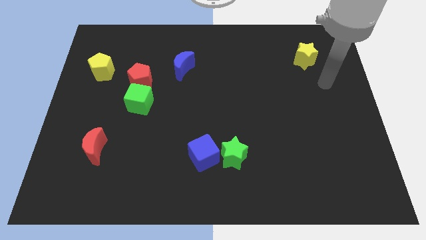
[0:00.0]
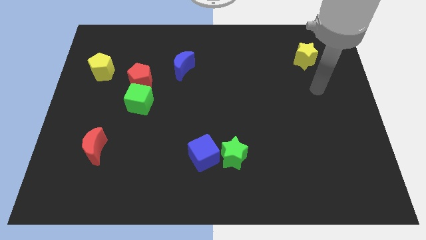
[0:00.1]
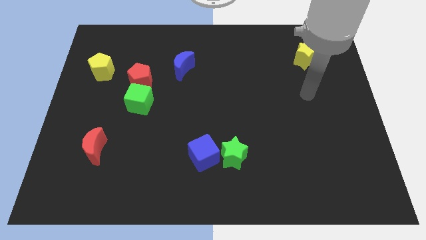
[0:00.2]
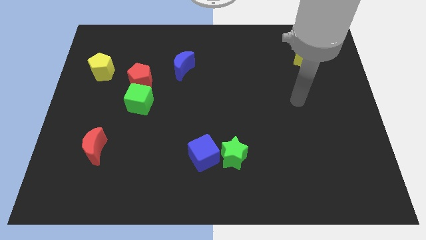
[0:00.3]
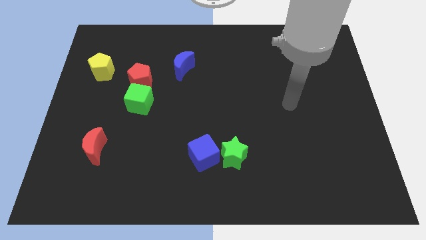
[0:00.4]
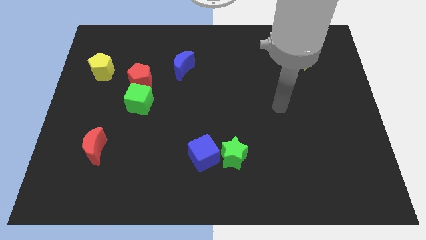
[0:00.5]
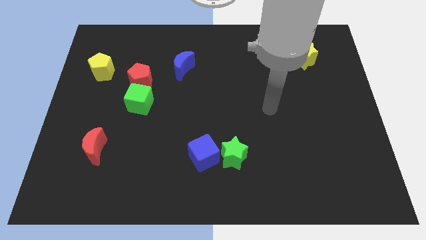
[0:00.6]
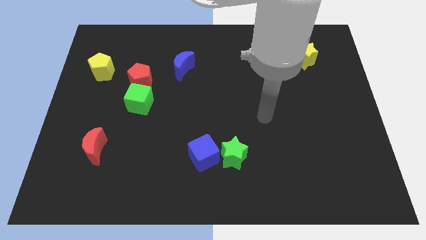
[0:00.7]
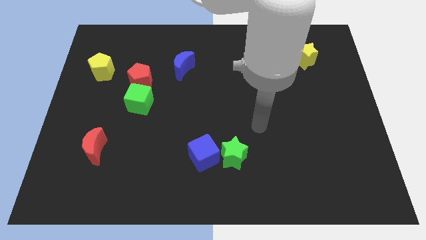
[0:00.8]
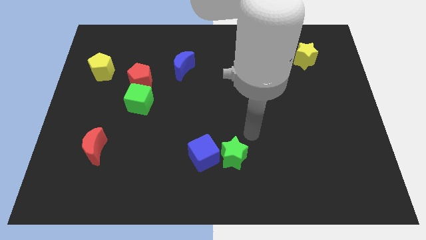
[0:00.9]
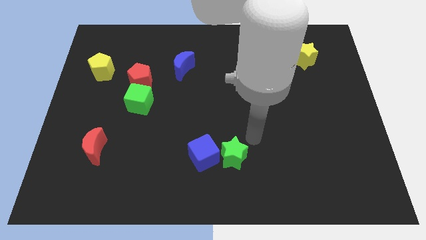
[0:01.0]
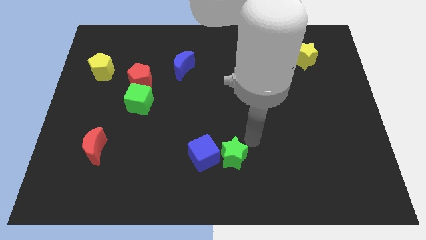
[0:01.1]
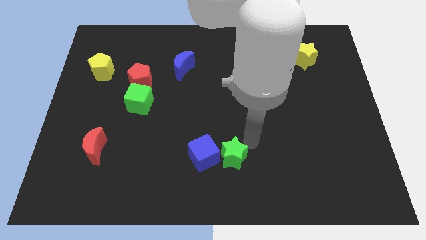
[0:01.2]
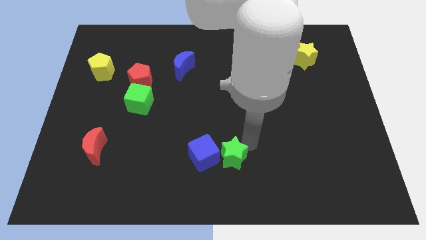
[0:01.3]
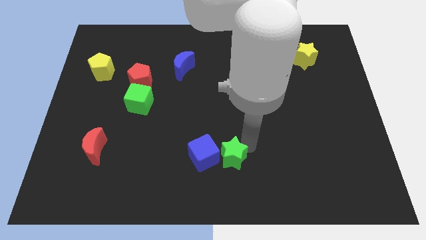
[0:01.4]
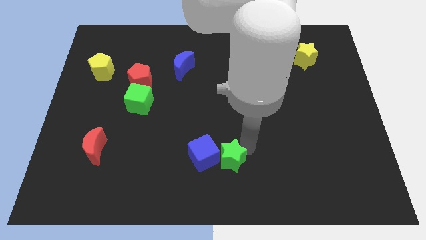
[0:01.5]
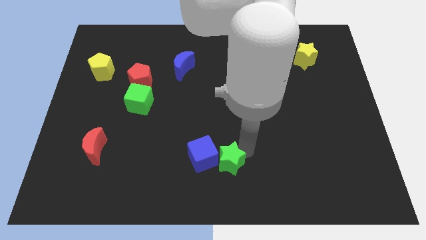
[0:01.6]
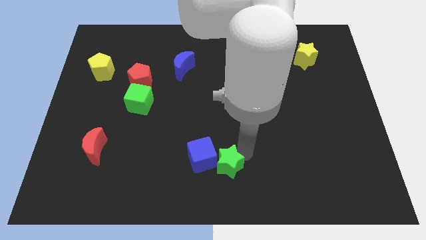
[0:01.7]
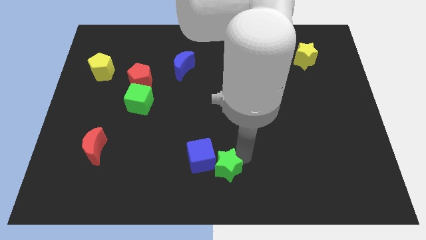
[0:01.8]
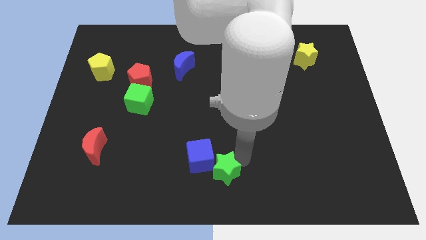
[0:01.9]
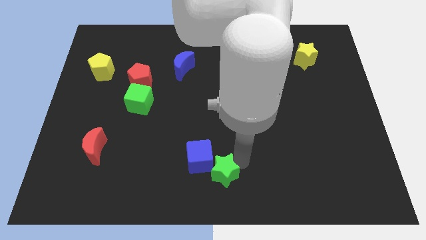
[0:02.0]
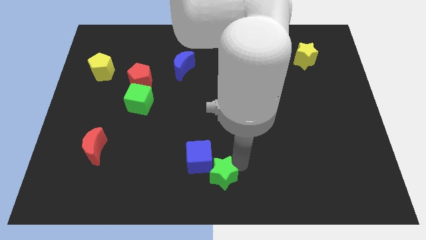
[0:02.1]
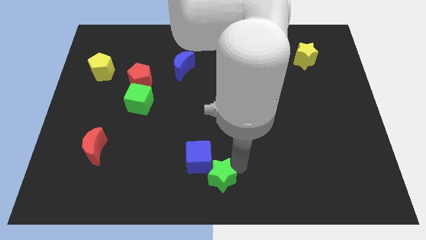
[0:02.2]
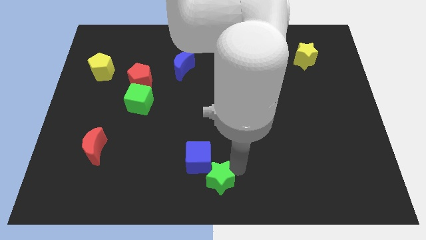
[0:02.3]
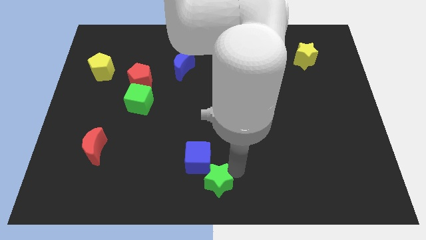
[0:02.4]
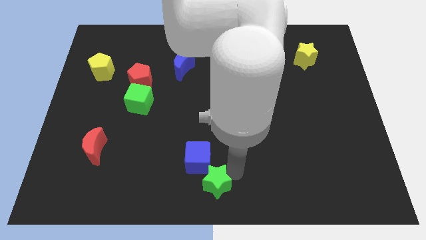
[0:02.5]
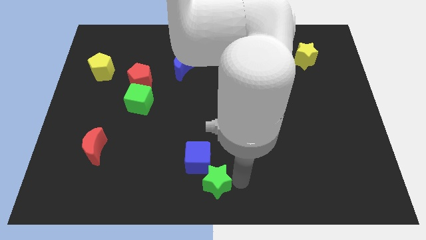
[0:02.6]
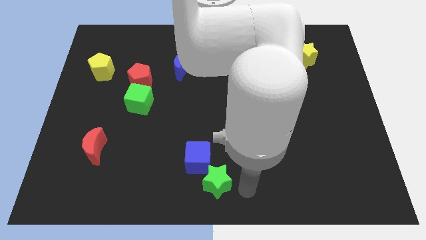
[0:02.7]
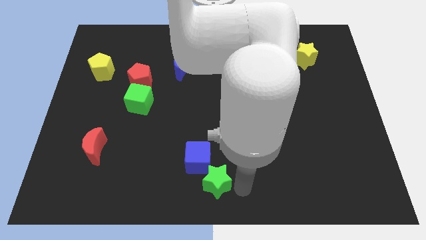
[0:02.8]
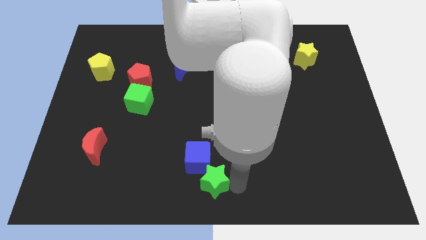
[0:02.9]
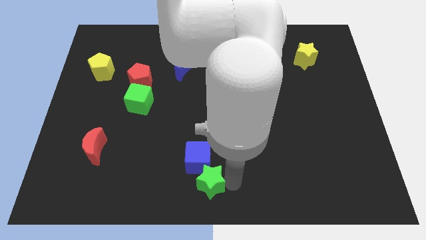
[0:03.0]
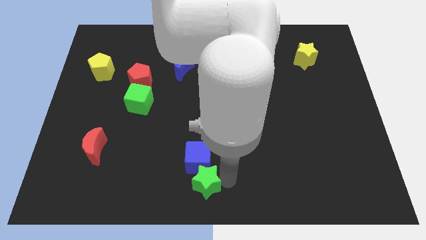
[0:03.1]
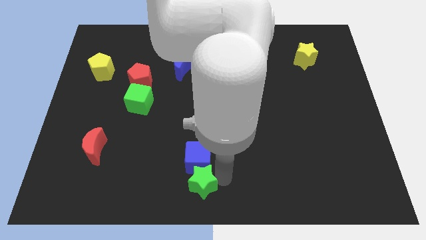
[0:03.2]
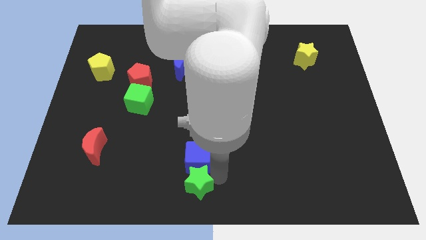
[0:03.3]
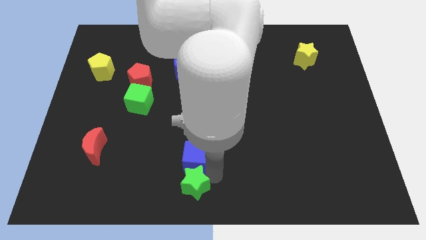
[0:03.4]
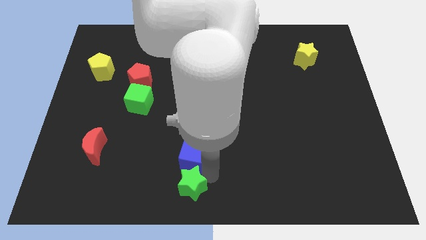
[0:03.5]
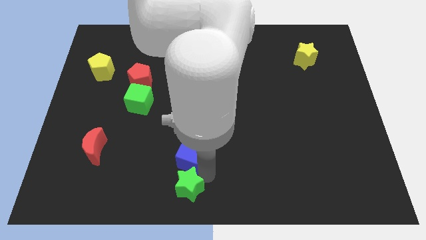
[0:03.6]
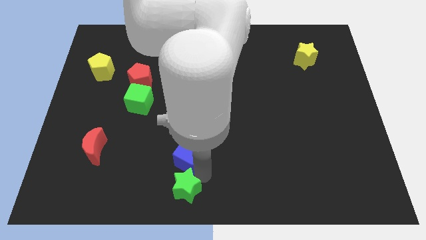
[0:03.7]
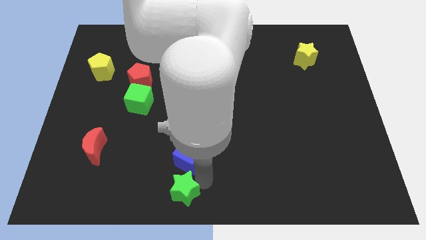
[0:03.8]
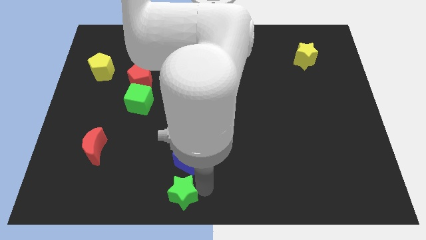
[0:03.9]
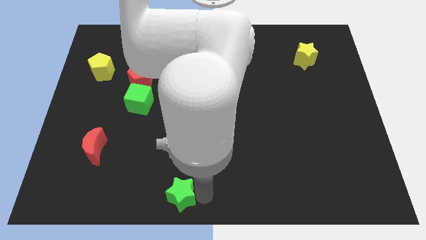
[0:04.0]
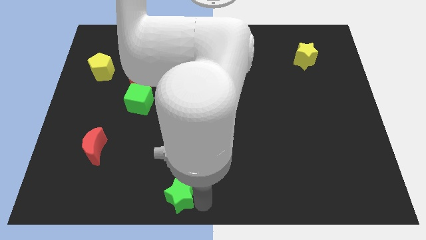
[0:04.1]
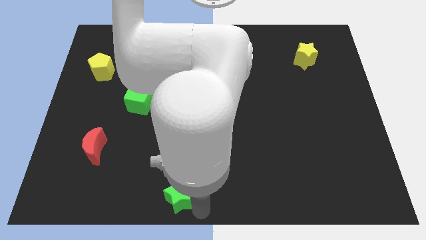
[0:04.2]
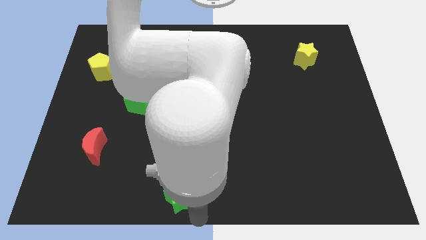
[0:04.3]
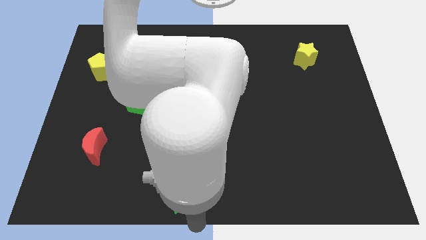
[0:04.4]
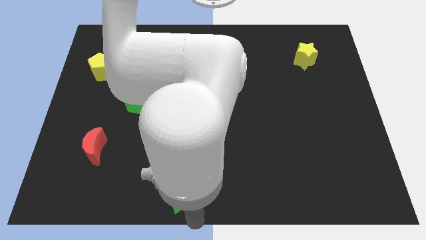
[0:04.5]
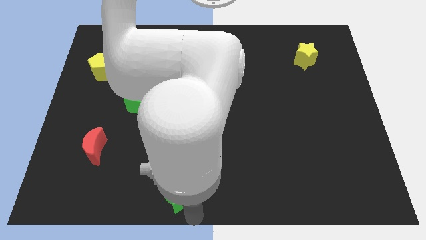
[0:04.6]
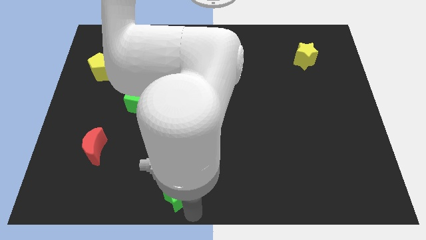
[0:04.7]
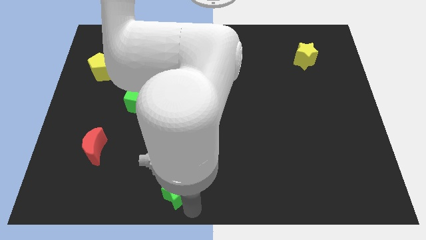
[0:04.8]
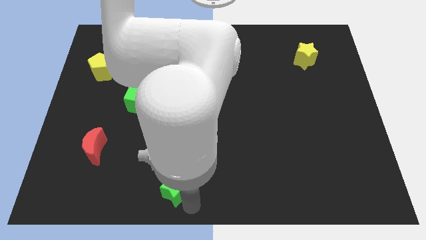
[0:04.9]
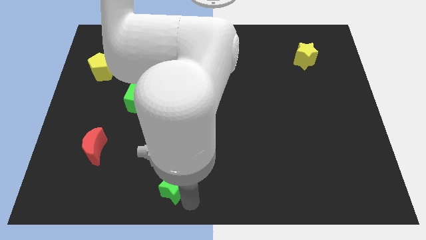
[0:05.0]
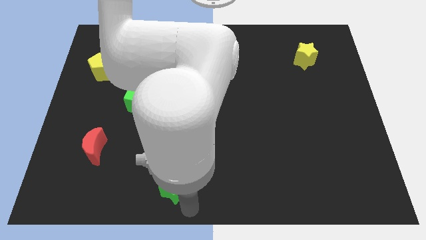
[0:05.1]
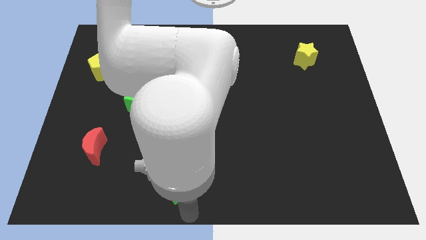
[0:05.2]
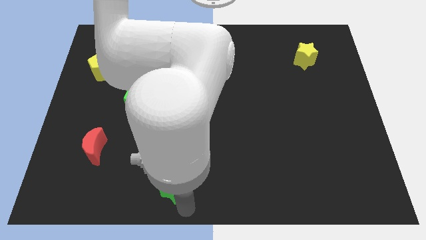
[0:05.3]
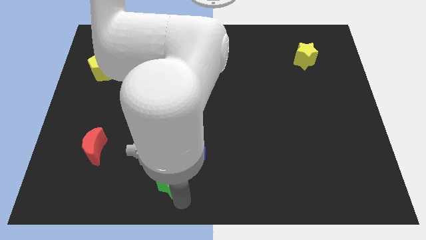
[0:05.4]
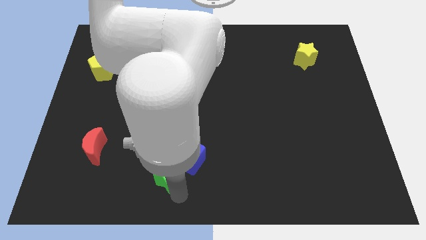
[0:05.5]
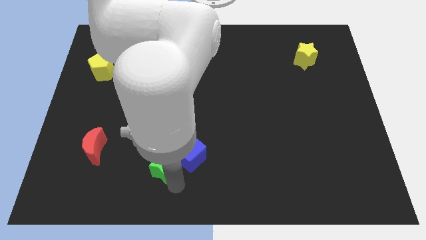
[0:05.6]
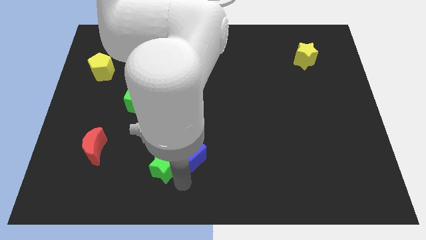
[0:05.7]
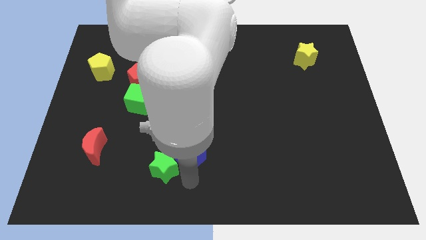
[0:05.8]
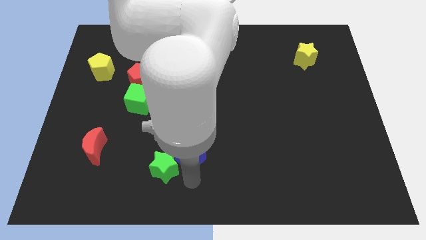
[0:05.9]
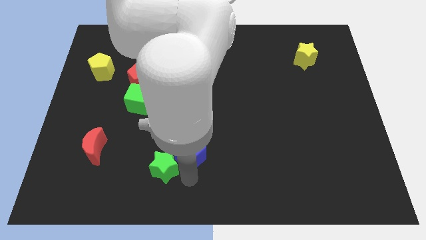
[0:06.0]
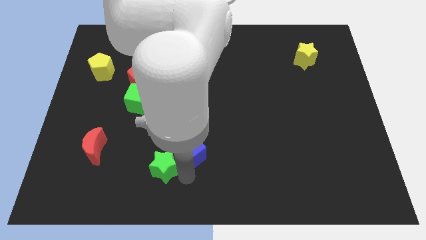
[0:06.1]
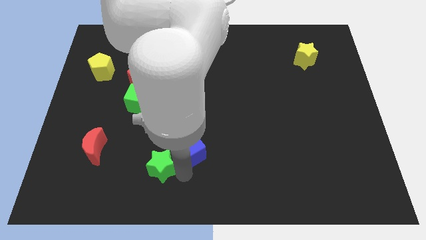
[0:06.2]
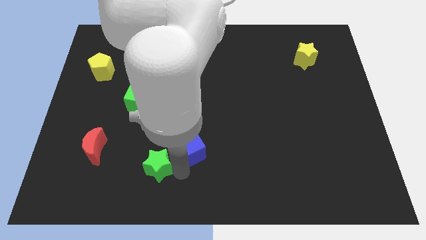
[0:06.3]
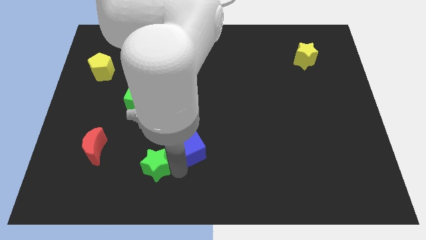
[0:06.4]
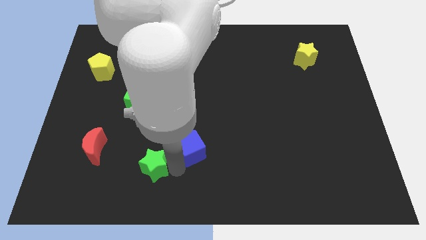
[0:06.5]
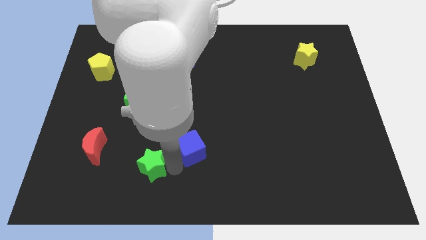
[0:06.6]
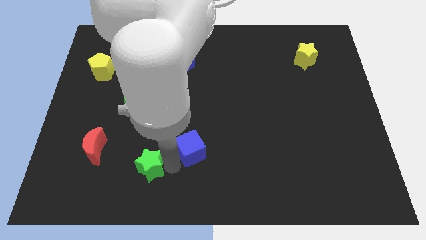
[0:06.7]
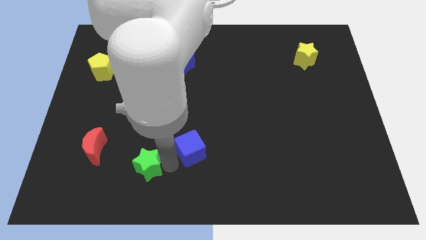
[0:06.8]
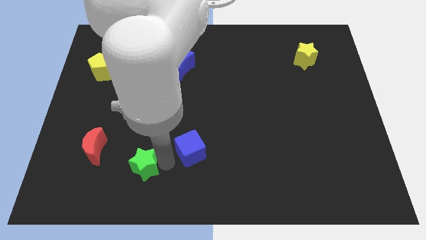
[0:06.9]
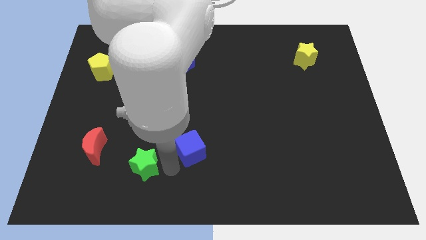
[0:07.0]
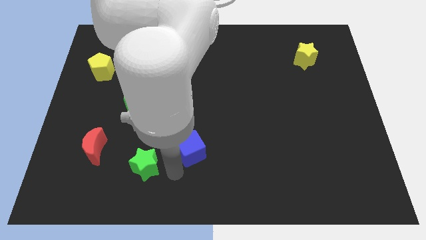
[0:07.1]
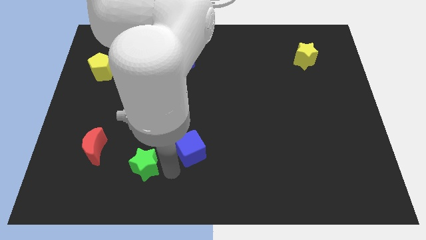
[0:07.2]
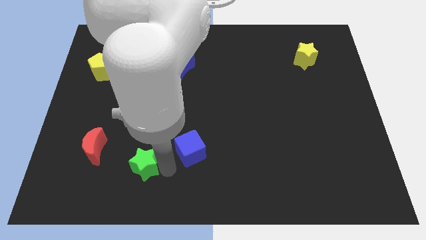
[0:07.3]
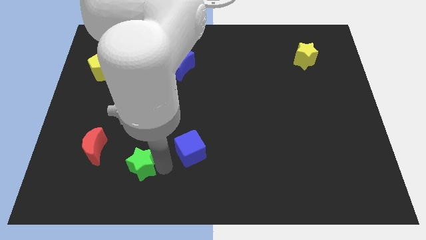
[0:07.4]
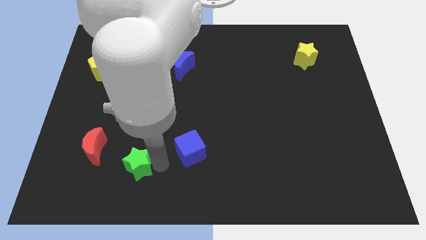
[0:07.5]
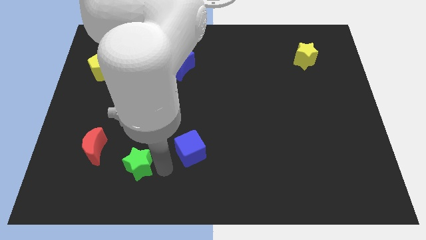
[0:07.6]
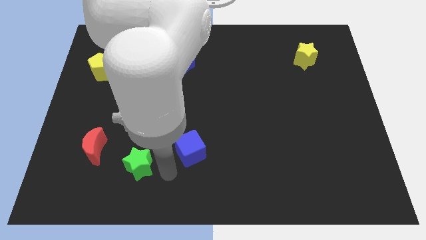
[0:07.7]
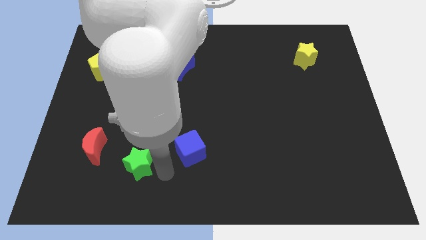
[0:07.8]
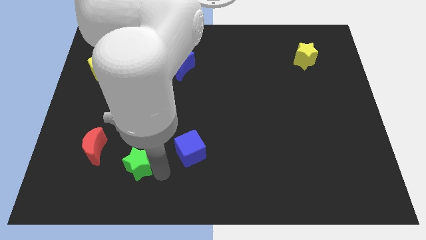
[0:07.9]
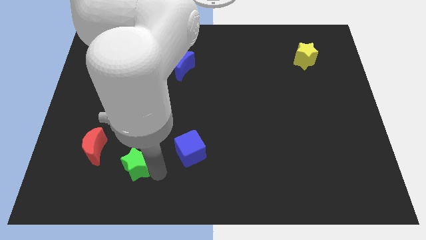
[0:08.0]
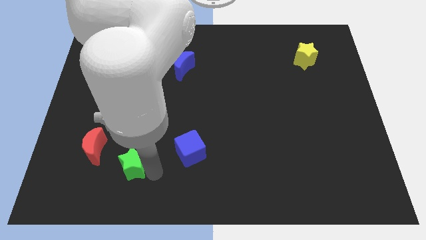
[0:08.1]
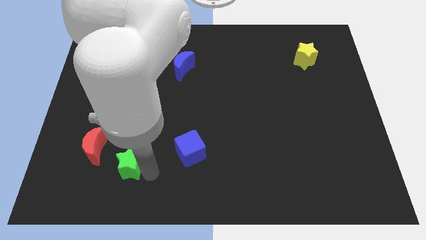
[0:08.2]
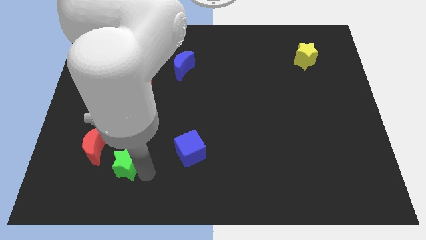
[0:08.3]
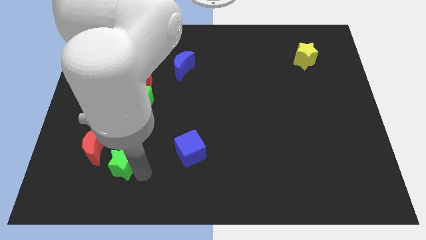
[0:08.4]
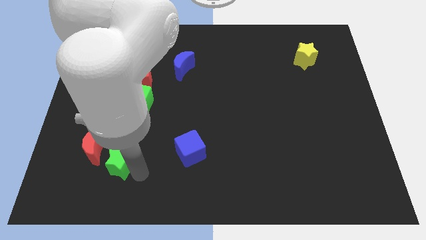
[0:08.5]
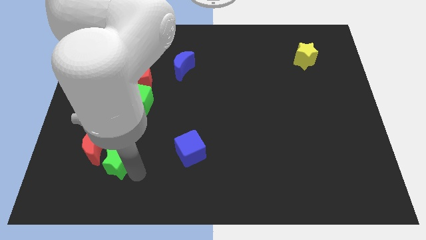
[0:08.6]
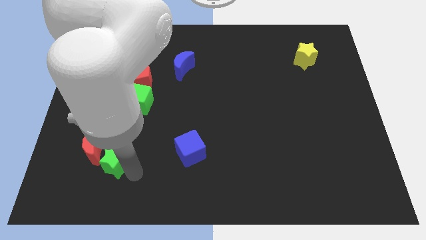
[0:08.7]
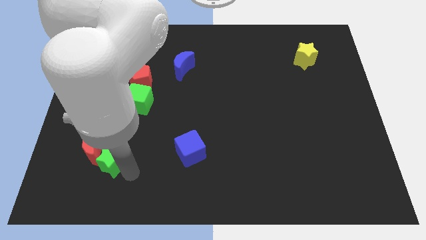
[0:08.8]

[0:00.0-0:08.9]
put the green star to the red moon
